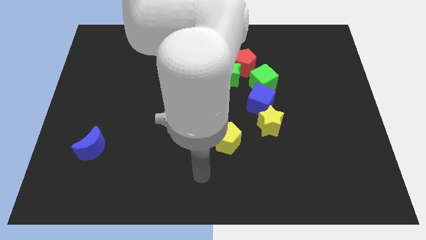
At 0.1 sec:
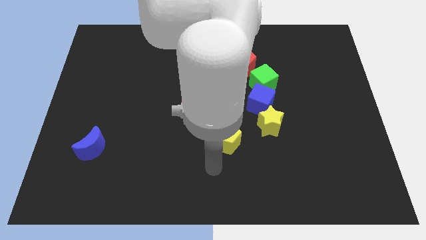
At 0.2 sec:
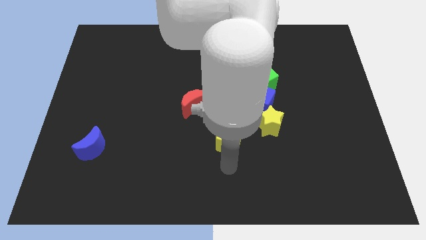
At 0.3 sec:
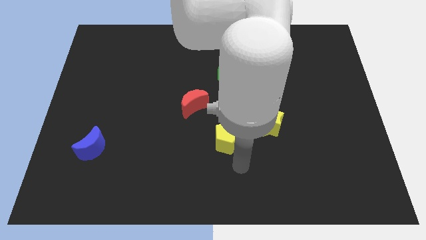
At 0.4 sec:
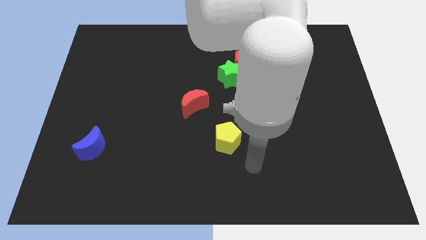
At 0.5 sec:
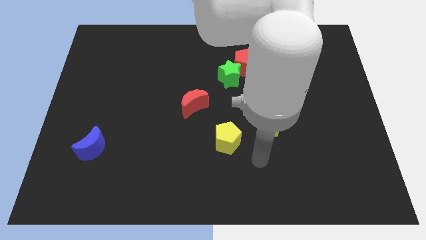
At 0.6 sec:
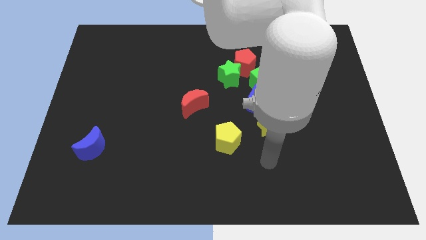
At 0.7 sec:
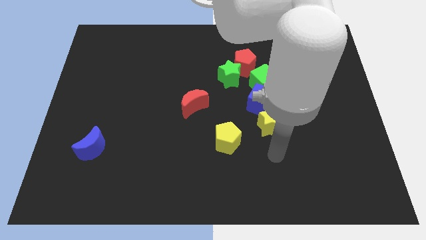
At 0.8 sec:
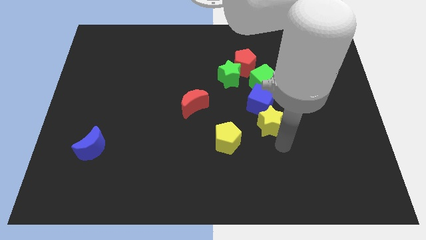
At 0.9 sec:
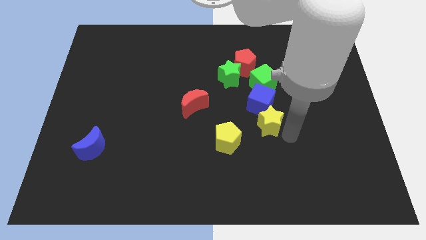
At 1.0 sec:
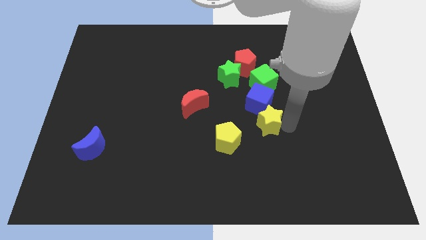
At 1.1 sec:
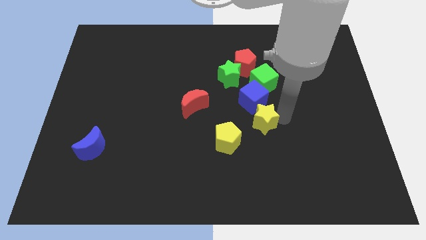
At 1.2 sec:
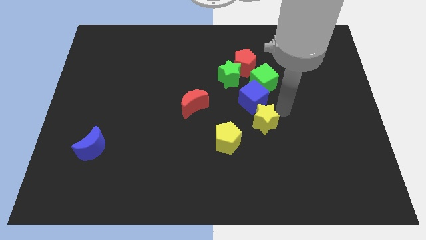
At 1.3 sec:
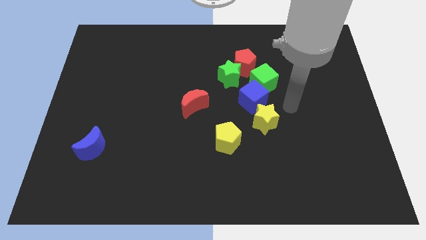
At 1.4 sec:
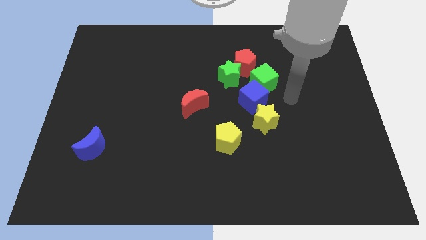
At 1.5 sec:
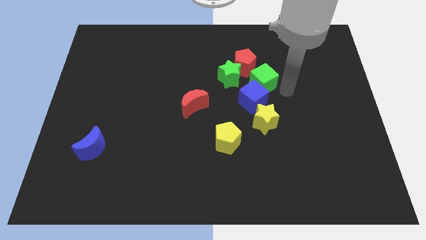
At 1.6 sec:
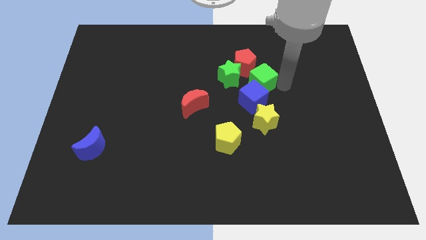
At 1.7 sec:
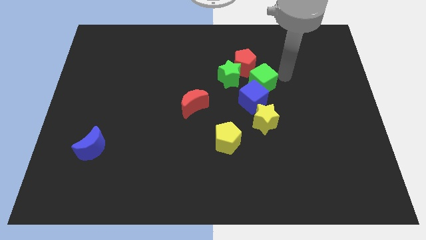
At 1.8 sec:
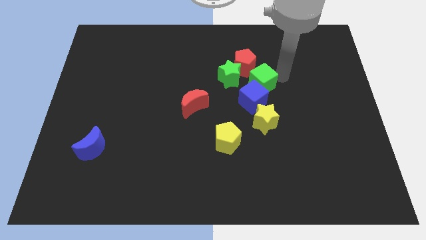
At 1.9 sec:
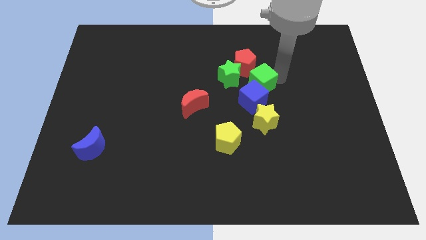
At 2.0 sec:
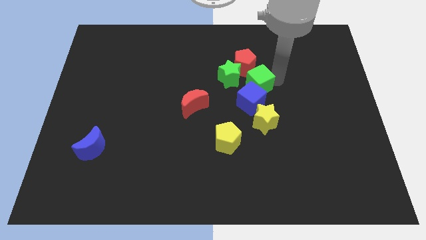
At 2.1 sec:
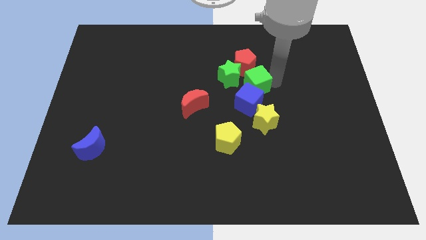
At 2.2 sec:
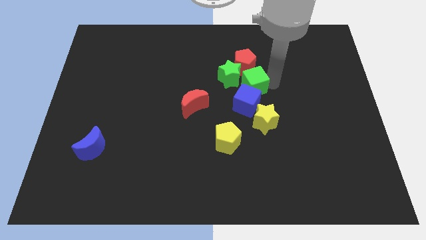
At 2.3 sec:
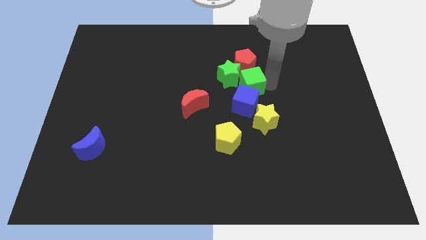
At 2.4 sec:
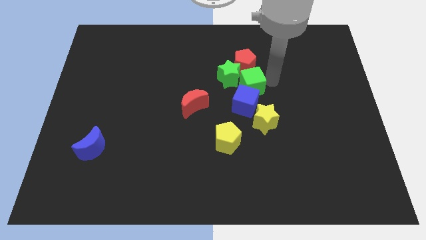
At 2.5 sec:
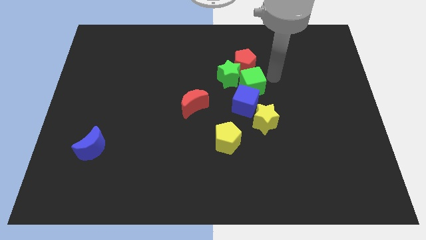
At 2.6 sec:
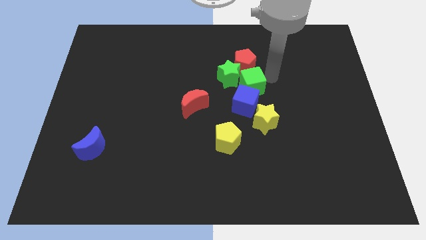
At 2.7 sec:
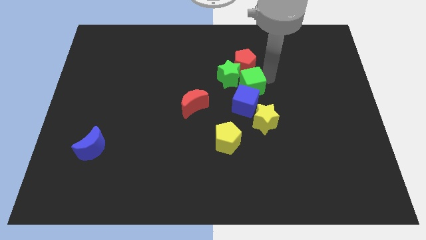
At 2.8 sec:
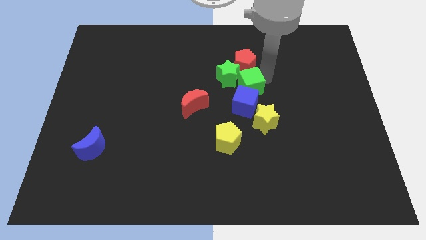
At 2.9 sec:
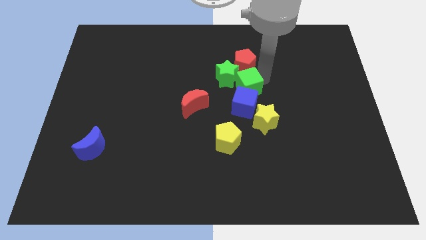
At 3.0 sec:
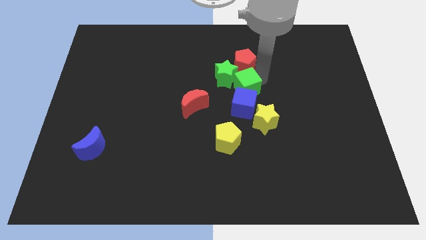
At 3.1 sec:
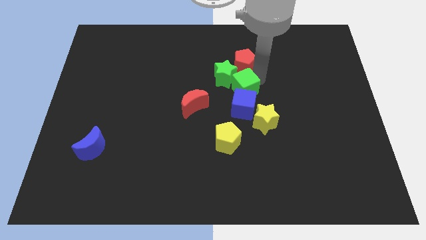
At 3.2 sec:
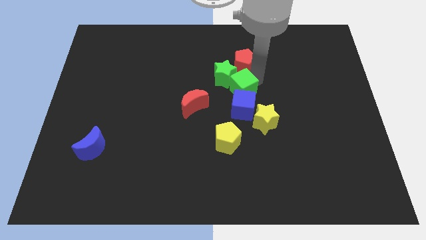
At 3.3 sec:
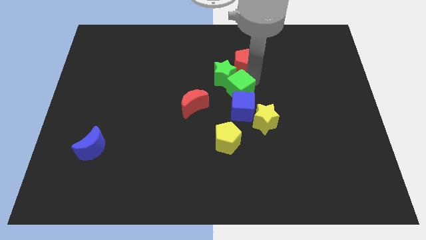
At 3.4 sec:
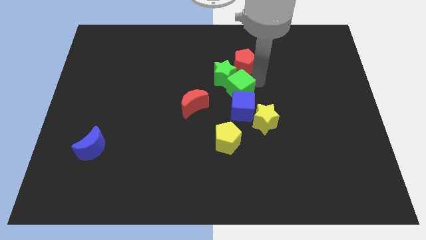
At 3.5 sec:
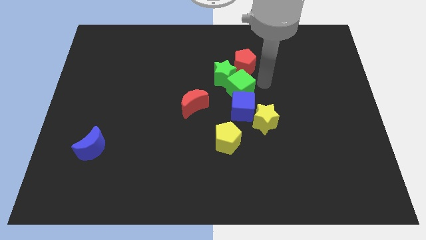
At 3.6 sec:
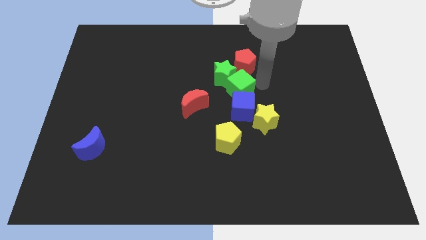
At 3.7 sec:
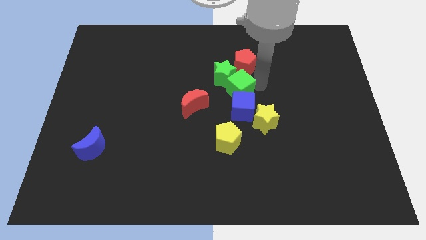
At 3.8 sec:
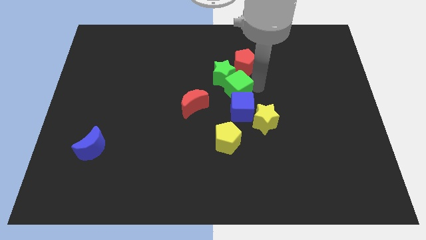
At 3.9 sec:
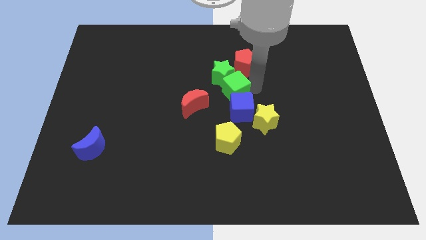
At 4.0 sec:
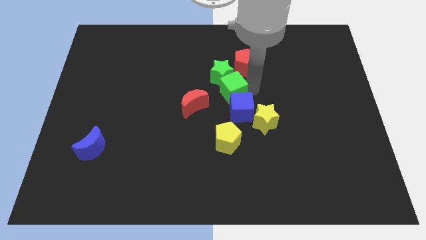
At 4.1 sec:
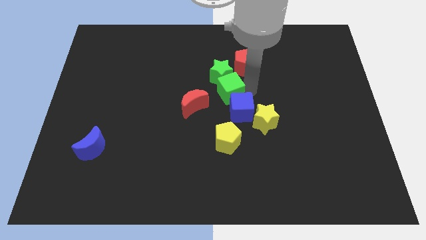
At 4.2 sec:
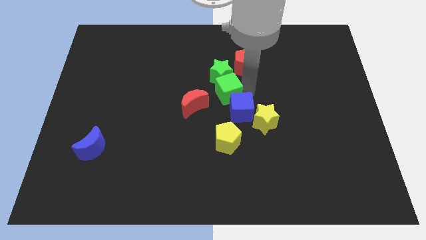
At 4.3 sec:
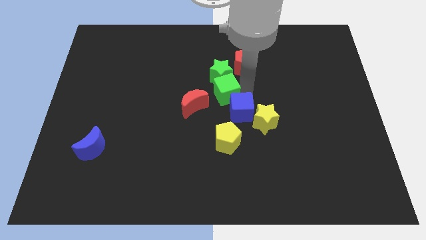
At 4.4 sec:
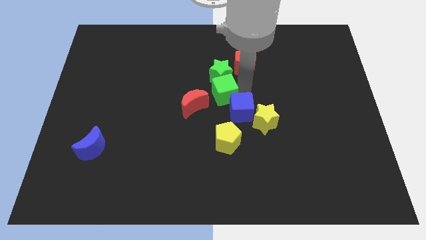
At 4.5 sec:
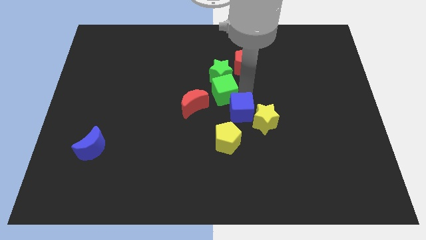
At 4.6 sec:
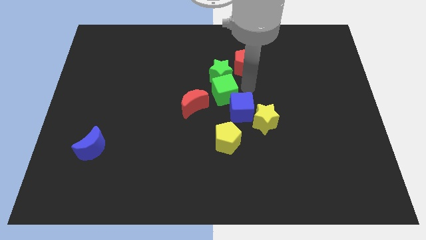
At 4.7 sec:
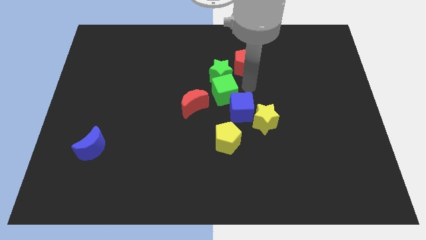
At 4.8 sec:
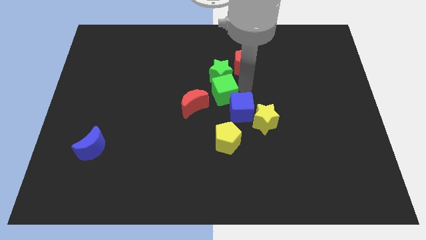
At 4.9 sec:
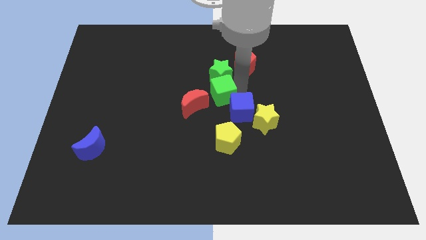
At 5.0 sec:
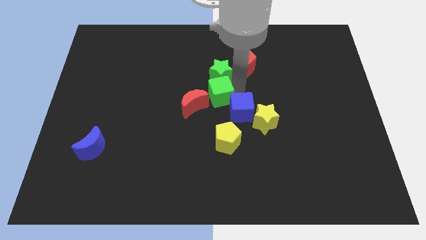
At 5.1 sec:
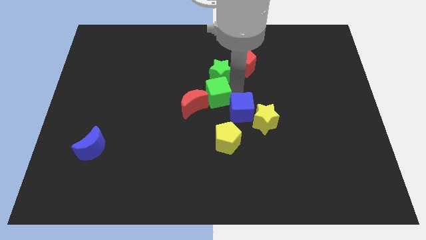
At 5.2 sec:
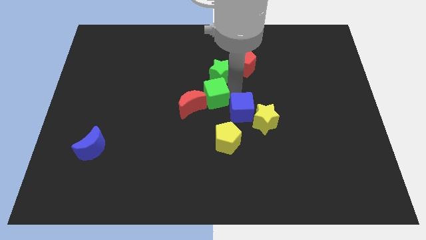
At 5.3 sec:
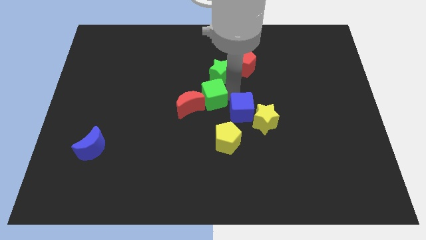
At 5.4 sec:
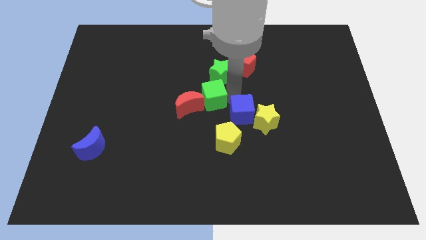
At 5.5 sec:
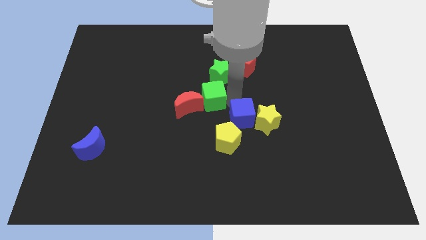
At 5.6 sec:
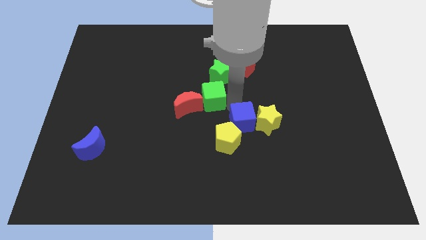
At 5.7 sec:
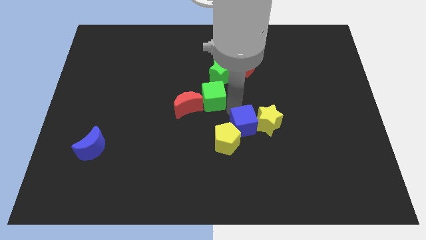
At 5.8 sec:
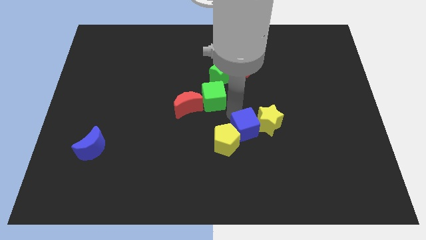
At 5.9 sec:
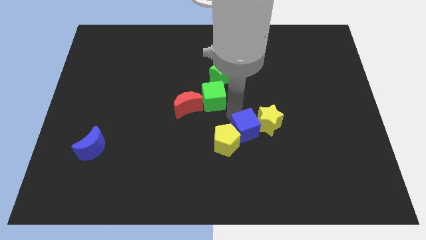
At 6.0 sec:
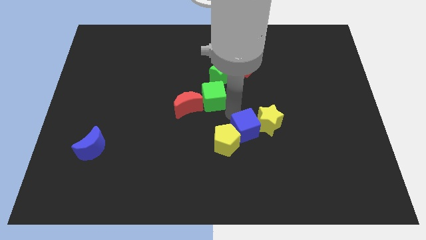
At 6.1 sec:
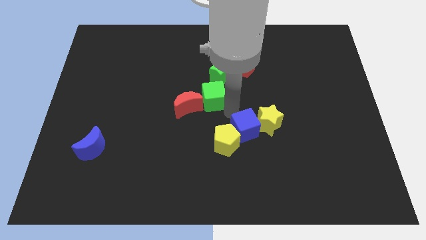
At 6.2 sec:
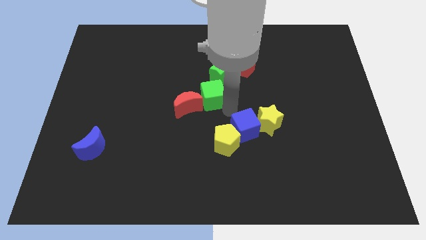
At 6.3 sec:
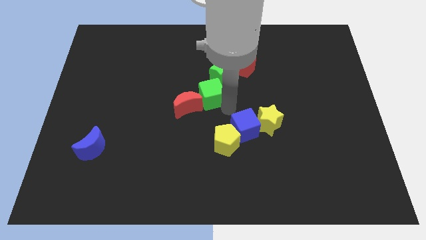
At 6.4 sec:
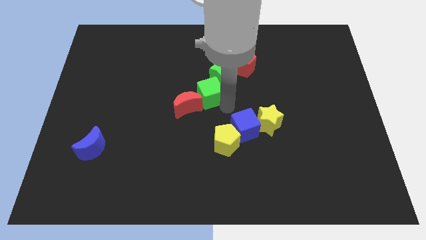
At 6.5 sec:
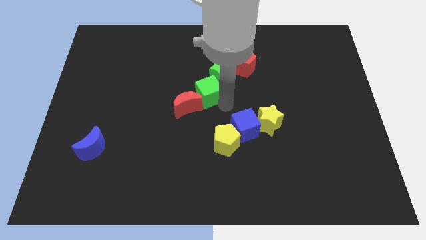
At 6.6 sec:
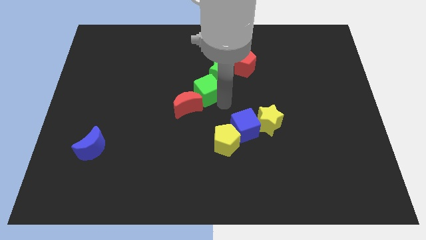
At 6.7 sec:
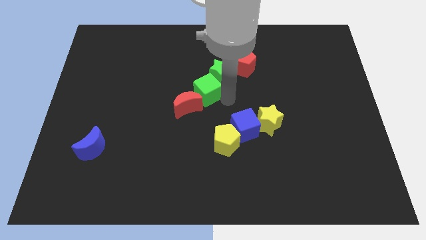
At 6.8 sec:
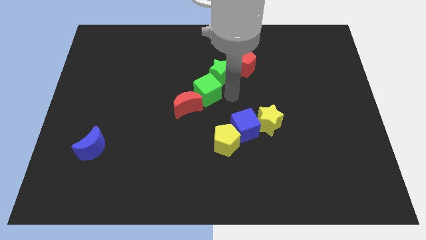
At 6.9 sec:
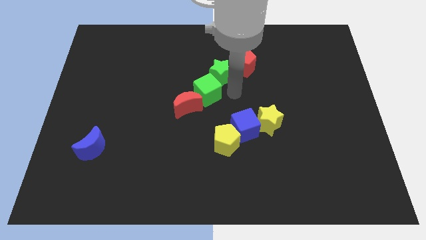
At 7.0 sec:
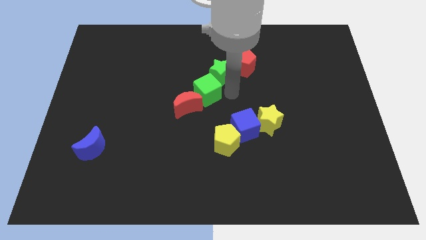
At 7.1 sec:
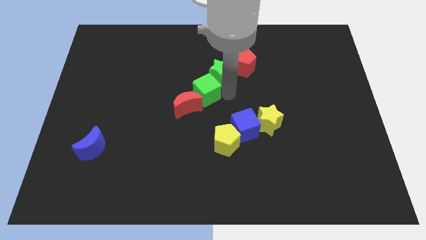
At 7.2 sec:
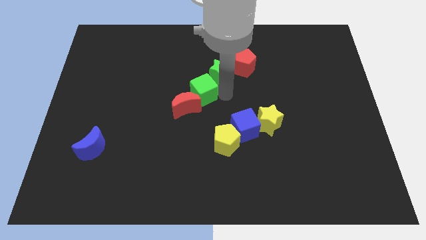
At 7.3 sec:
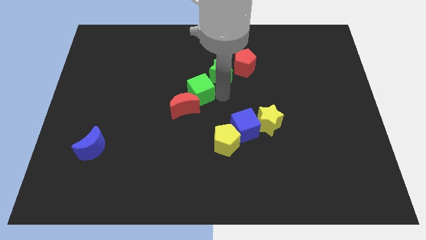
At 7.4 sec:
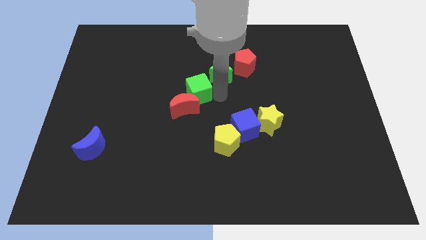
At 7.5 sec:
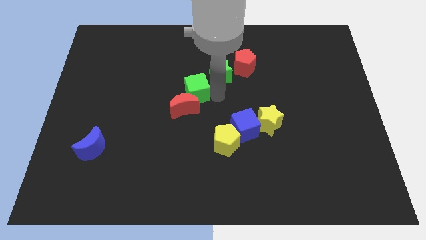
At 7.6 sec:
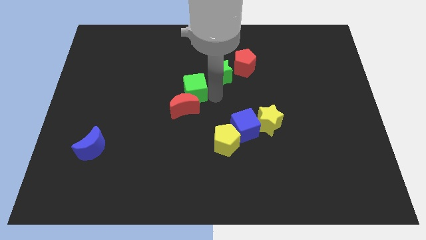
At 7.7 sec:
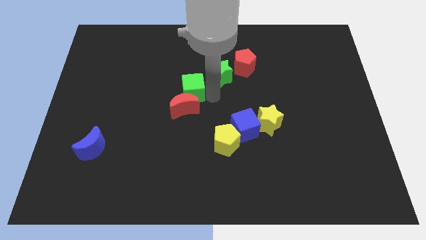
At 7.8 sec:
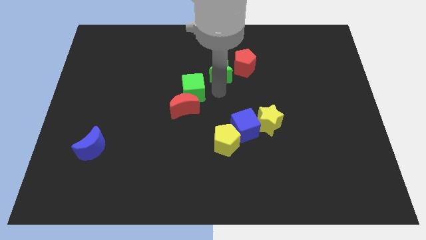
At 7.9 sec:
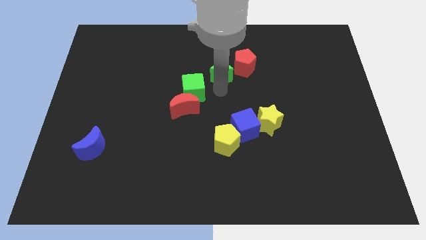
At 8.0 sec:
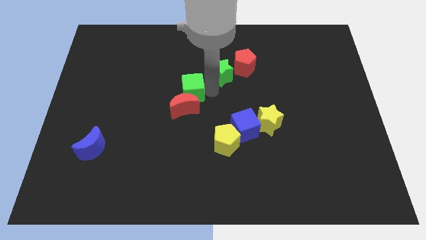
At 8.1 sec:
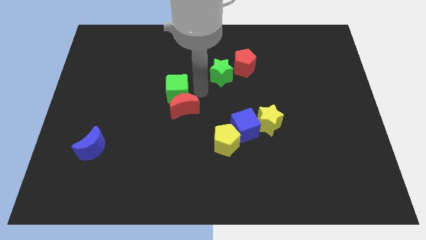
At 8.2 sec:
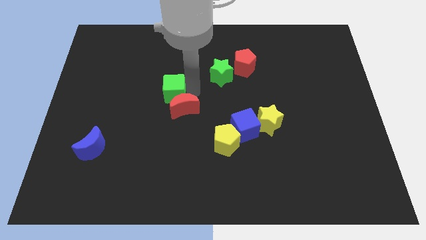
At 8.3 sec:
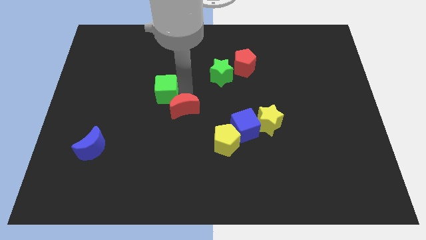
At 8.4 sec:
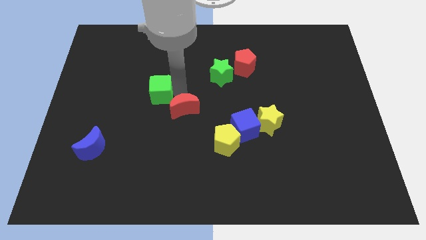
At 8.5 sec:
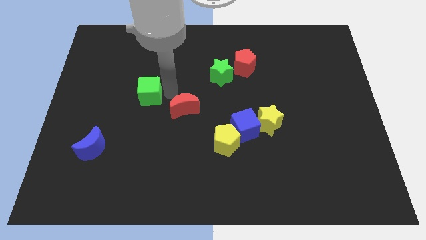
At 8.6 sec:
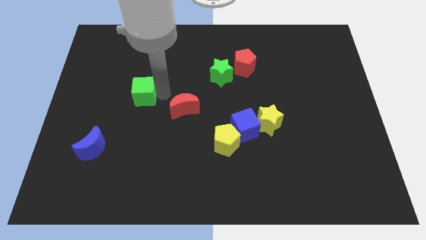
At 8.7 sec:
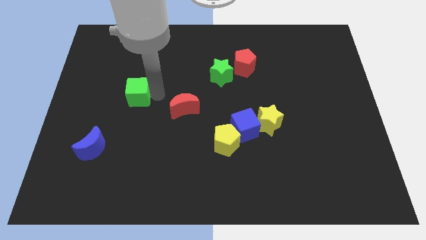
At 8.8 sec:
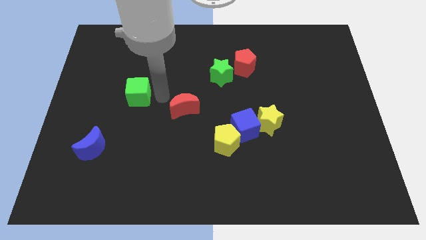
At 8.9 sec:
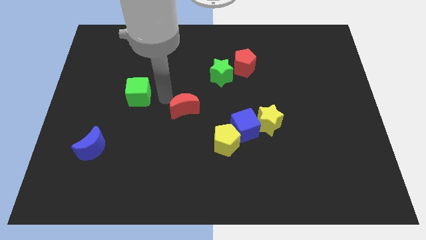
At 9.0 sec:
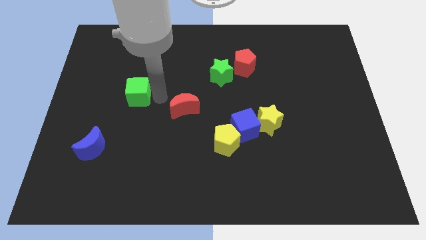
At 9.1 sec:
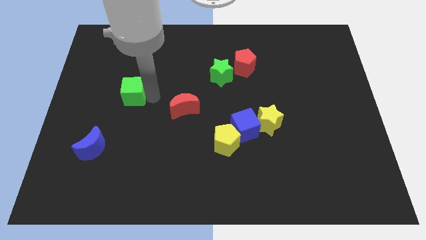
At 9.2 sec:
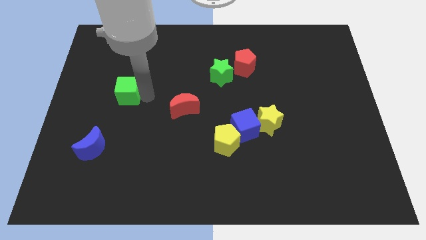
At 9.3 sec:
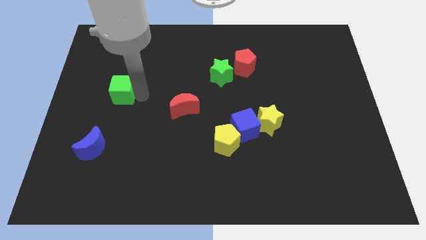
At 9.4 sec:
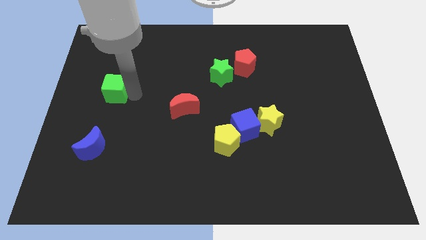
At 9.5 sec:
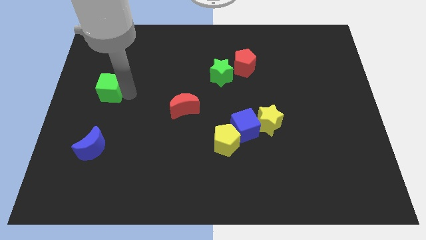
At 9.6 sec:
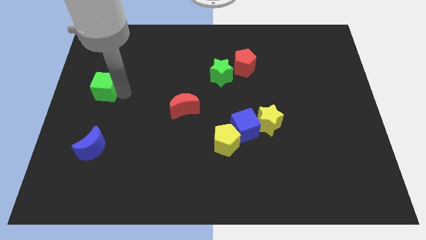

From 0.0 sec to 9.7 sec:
put the green cube to the left side
